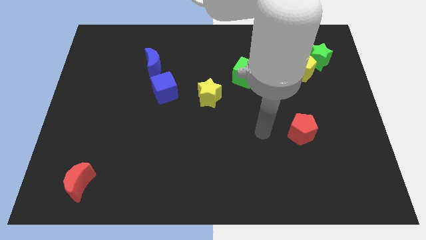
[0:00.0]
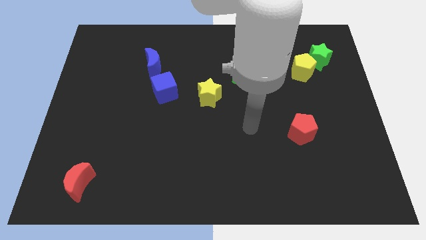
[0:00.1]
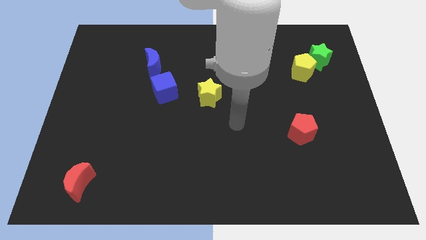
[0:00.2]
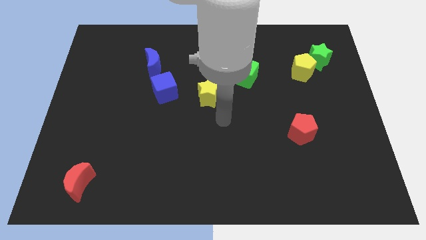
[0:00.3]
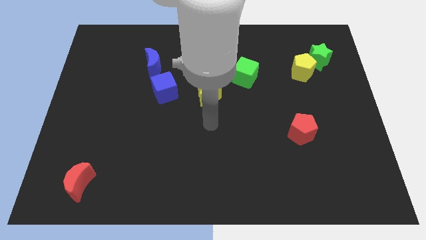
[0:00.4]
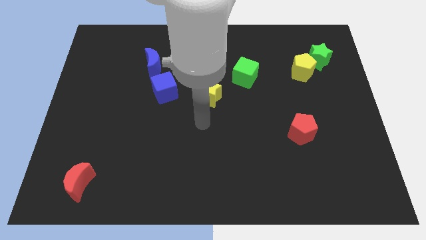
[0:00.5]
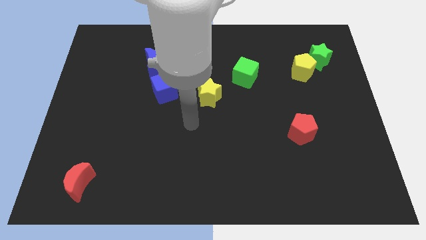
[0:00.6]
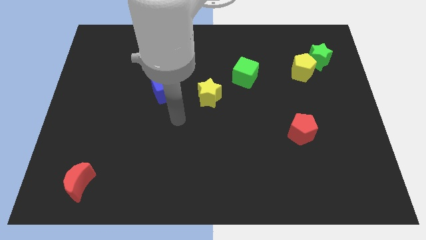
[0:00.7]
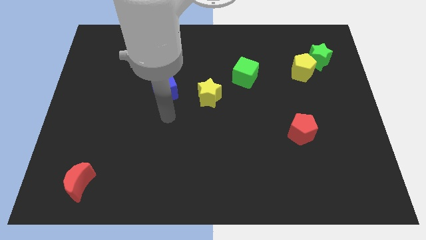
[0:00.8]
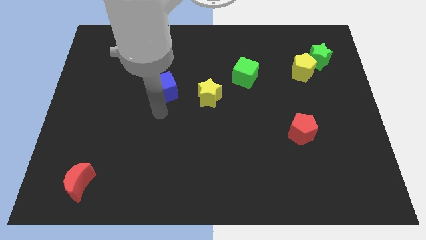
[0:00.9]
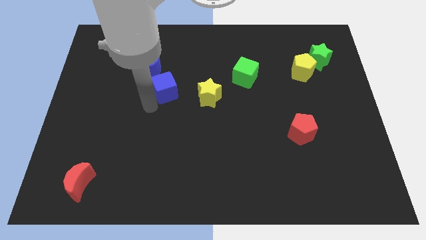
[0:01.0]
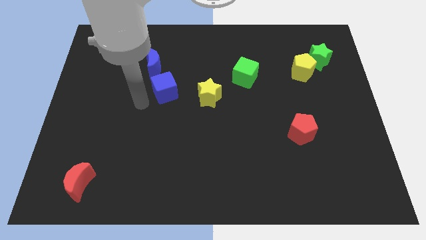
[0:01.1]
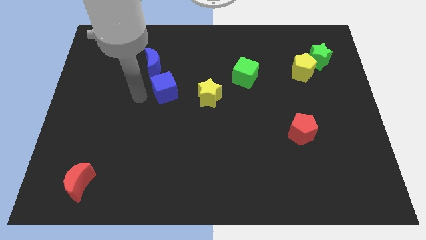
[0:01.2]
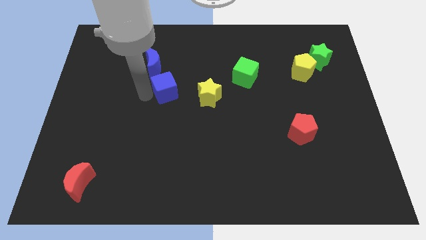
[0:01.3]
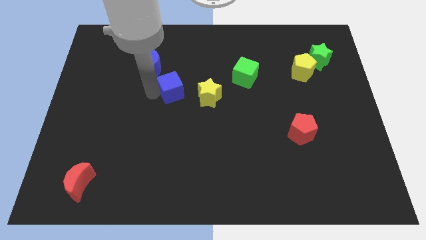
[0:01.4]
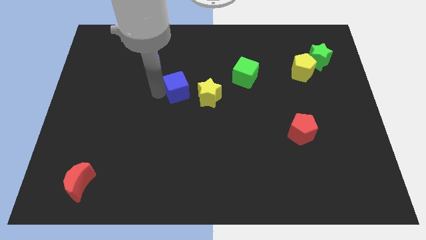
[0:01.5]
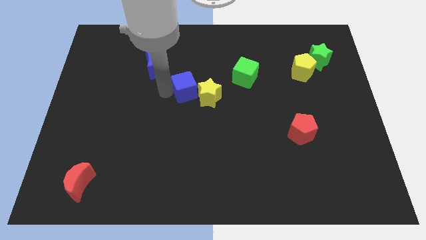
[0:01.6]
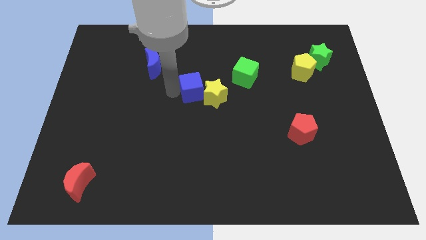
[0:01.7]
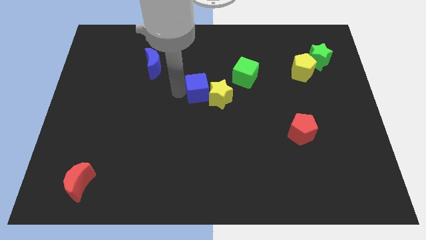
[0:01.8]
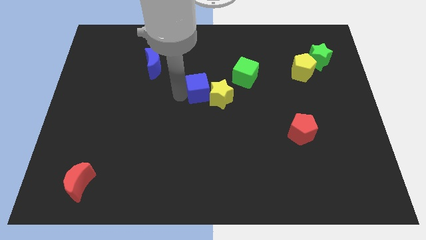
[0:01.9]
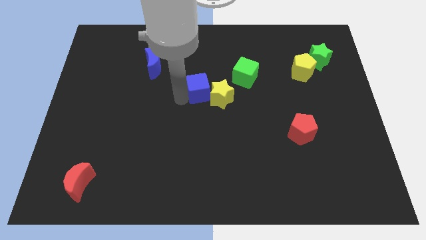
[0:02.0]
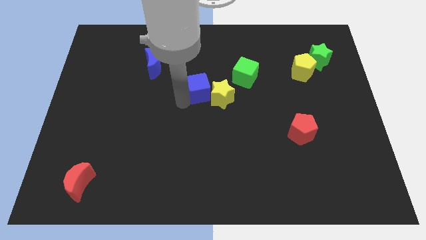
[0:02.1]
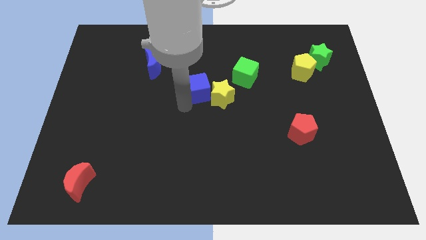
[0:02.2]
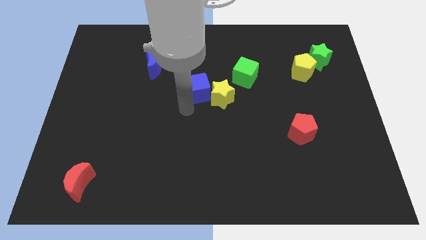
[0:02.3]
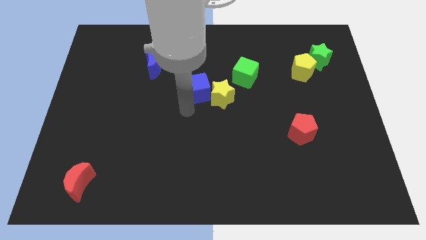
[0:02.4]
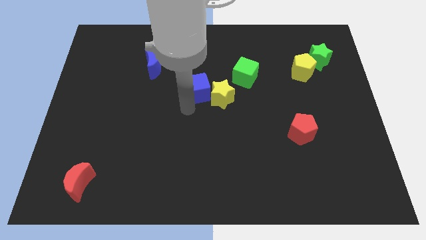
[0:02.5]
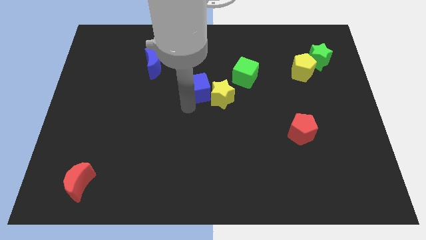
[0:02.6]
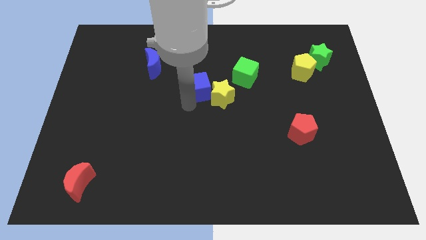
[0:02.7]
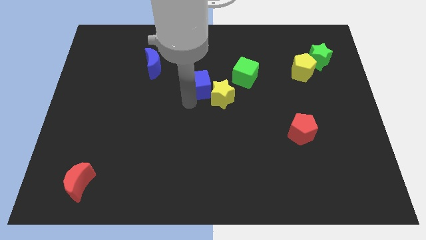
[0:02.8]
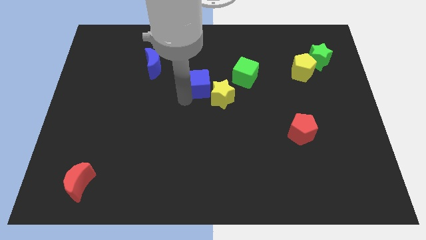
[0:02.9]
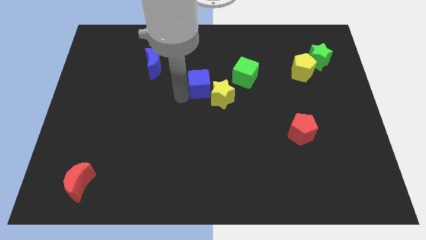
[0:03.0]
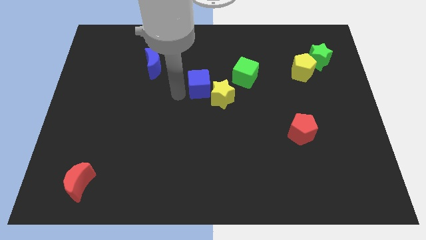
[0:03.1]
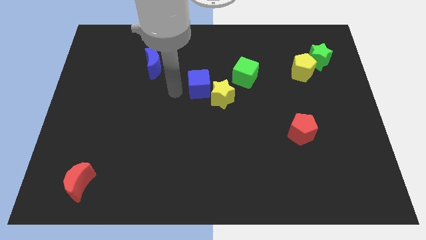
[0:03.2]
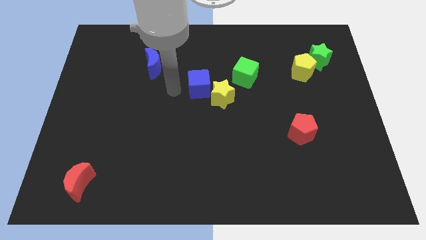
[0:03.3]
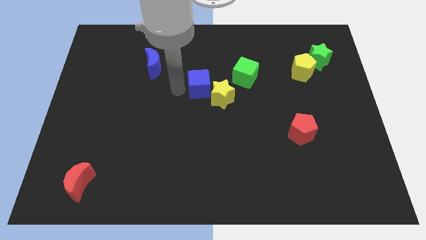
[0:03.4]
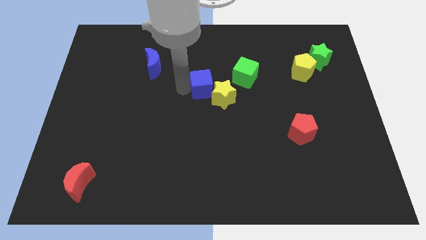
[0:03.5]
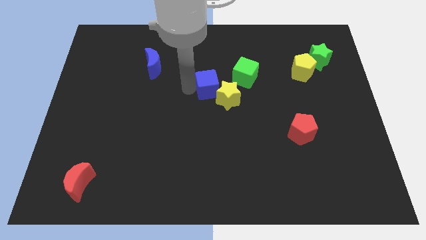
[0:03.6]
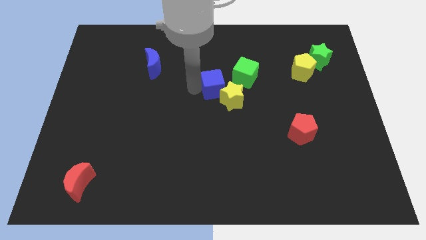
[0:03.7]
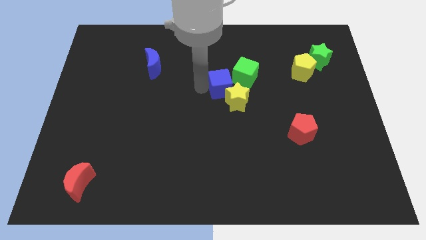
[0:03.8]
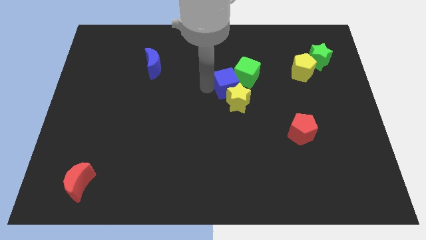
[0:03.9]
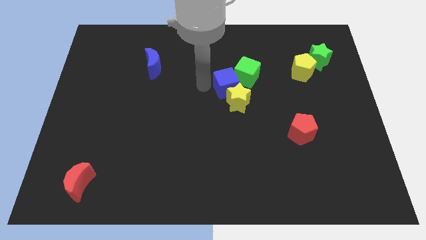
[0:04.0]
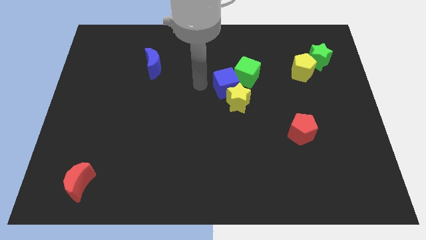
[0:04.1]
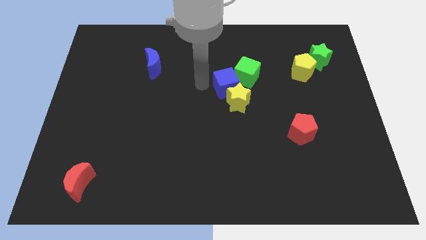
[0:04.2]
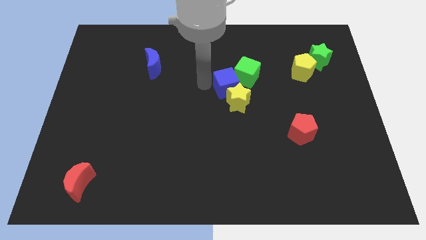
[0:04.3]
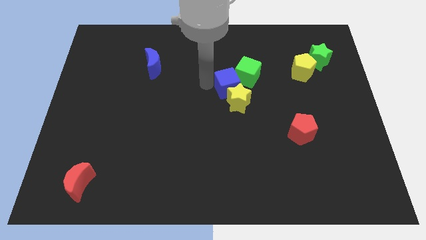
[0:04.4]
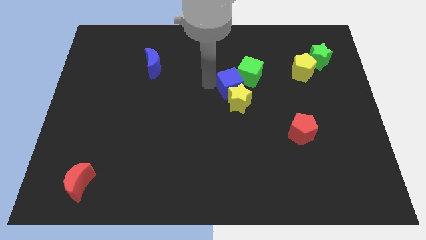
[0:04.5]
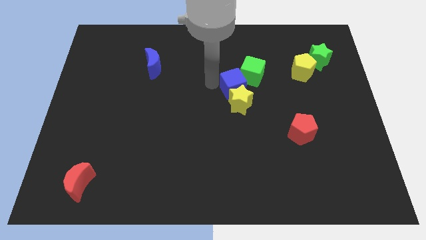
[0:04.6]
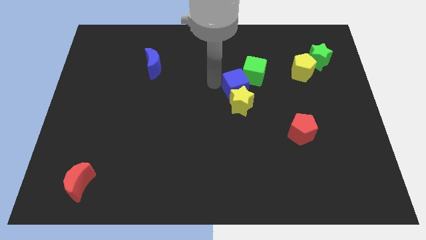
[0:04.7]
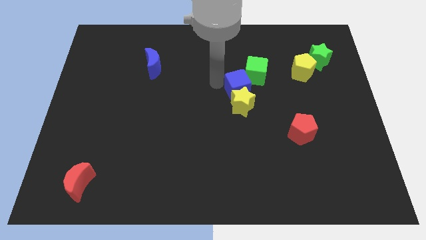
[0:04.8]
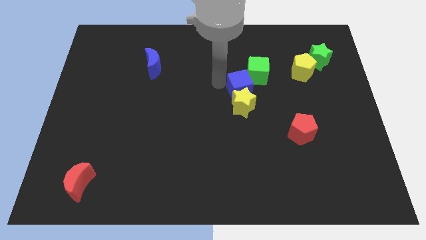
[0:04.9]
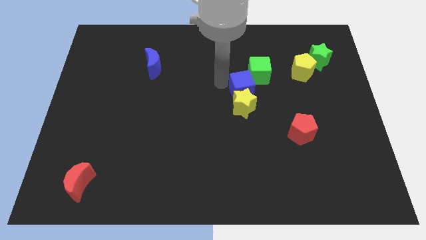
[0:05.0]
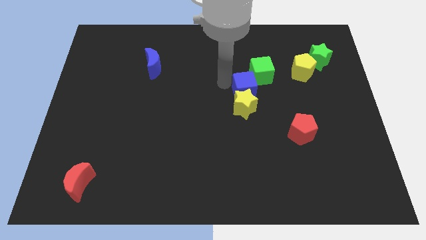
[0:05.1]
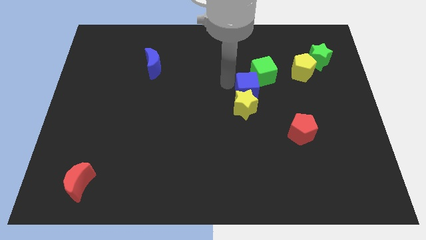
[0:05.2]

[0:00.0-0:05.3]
move the blue cube to the right

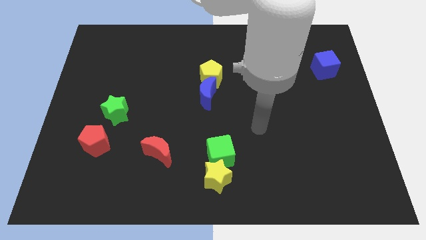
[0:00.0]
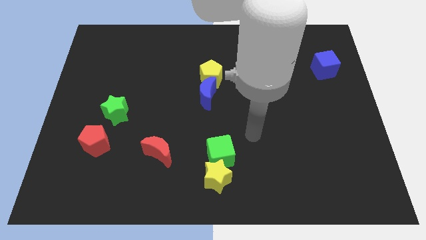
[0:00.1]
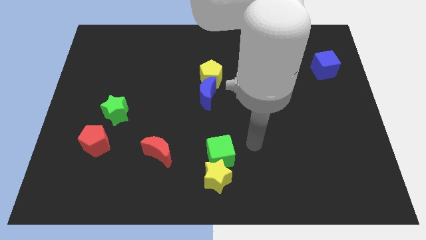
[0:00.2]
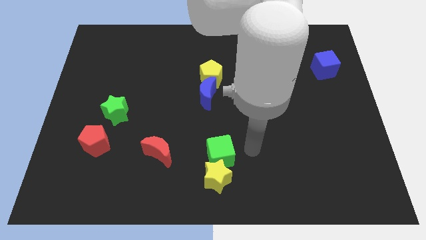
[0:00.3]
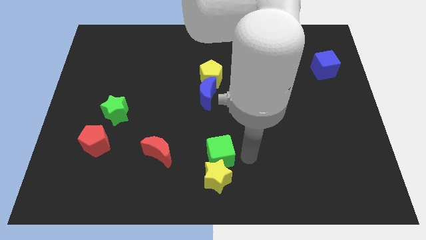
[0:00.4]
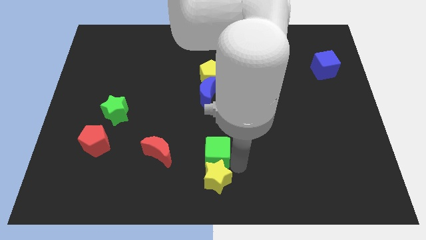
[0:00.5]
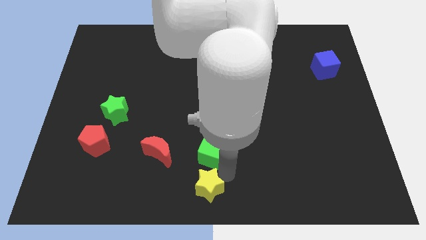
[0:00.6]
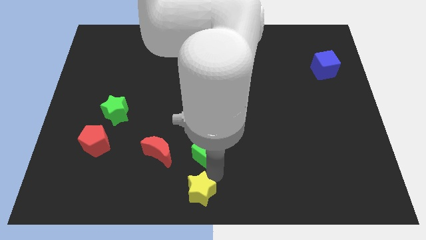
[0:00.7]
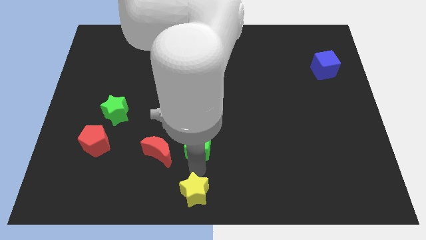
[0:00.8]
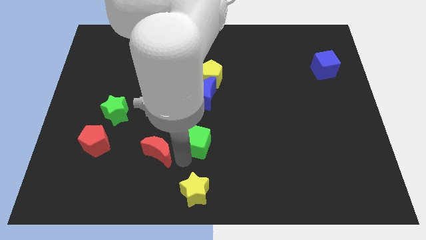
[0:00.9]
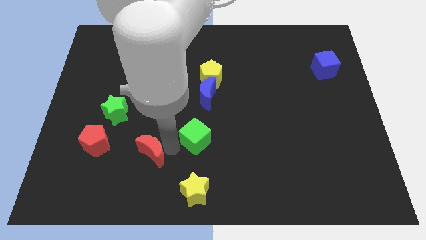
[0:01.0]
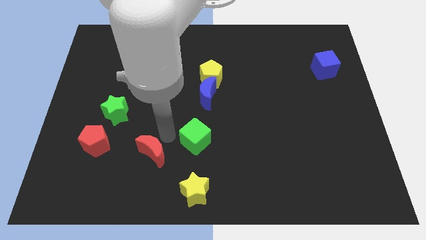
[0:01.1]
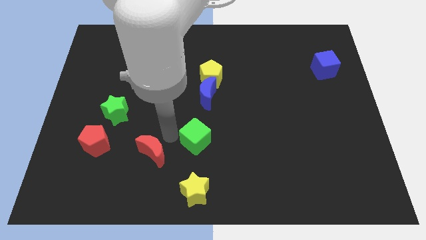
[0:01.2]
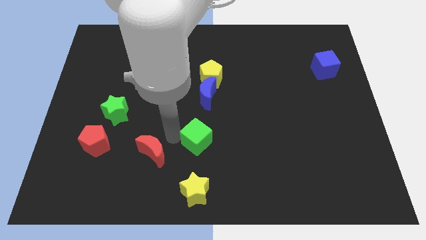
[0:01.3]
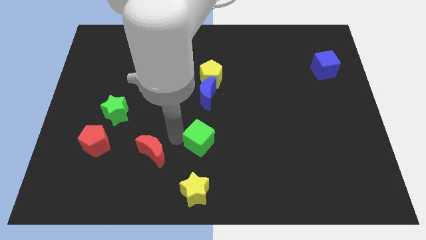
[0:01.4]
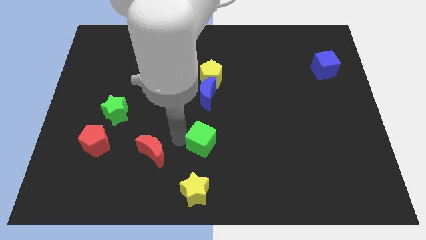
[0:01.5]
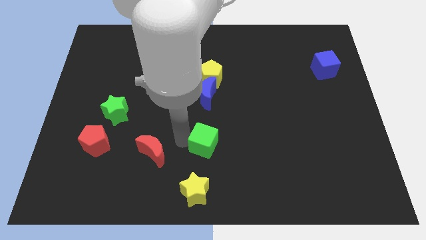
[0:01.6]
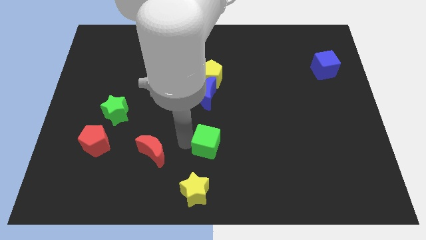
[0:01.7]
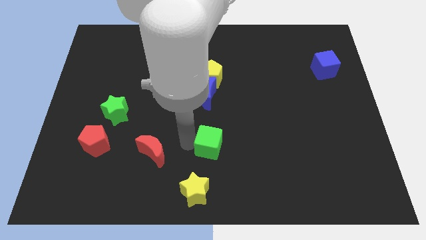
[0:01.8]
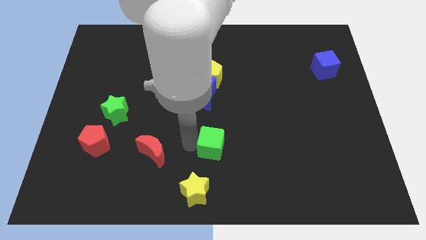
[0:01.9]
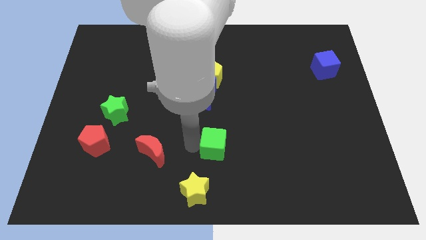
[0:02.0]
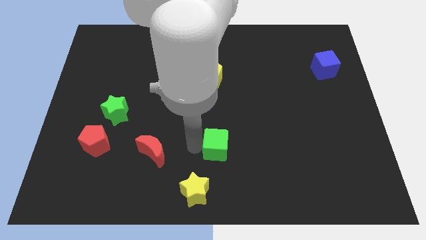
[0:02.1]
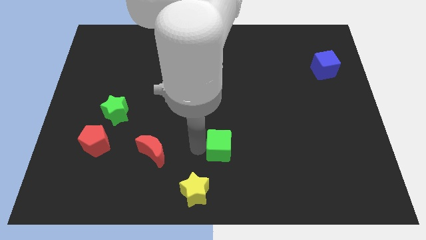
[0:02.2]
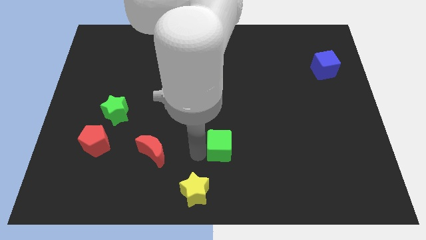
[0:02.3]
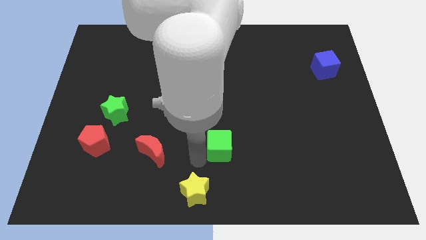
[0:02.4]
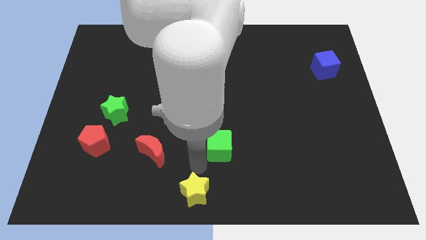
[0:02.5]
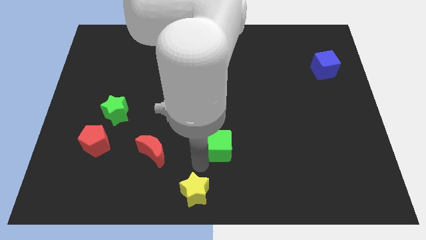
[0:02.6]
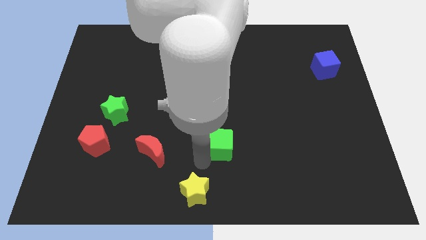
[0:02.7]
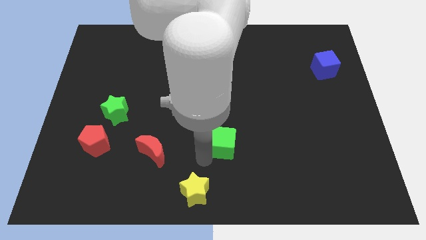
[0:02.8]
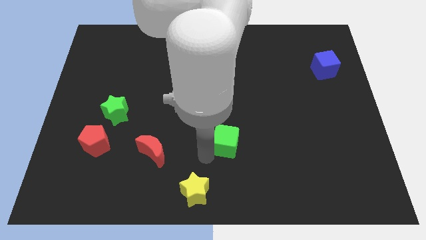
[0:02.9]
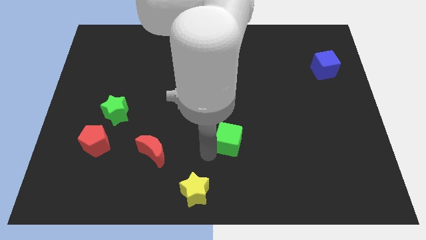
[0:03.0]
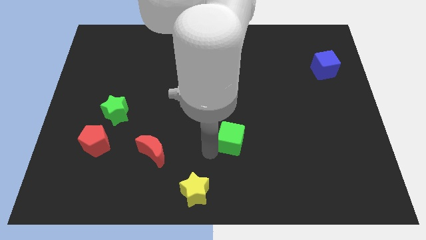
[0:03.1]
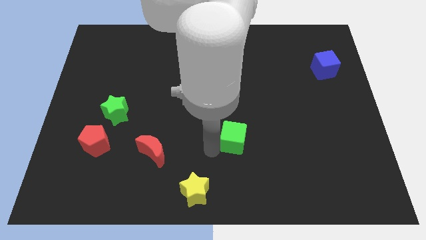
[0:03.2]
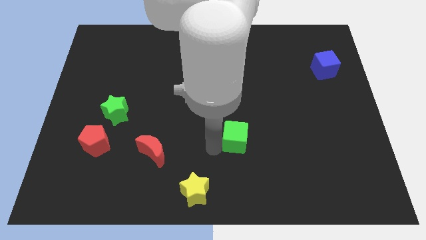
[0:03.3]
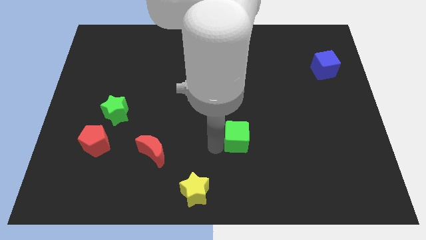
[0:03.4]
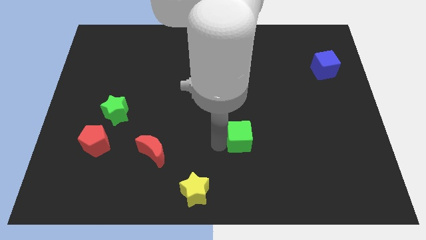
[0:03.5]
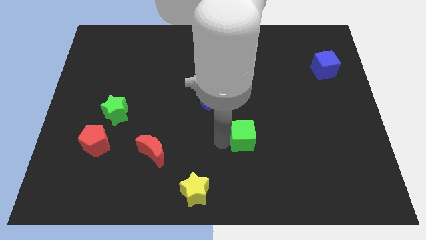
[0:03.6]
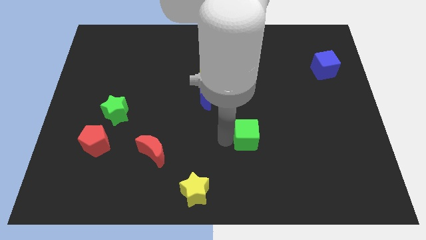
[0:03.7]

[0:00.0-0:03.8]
move the green cube upwards and right diagonally a bit
